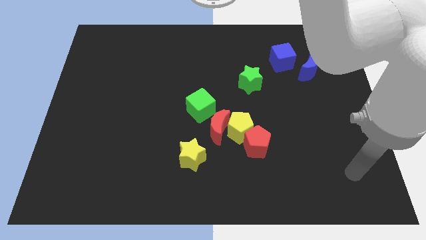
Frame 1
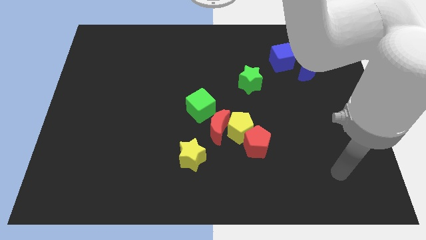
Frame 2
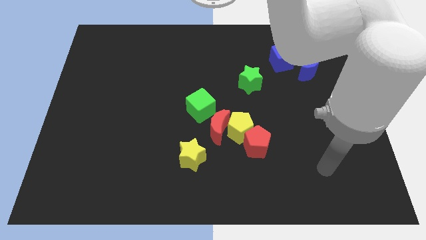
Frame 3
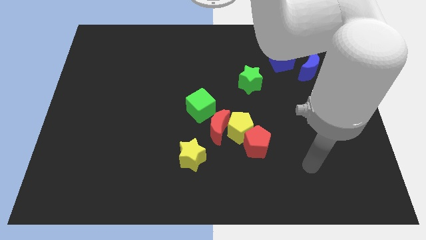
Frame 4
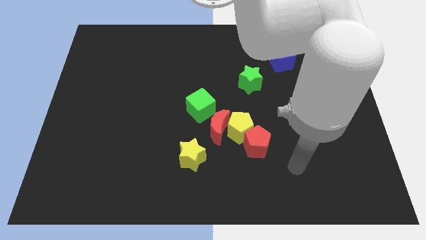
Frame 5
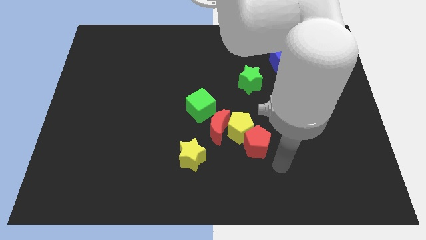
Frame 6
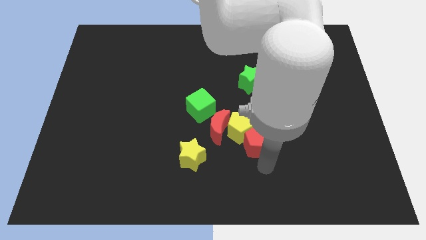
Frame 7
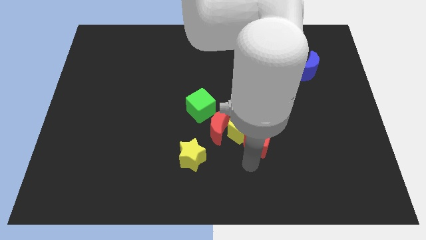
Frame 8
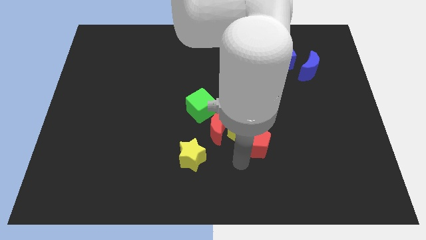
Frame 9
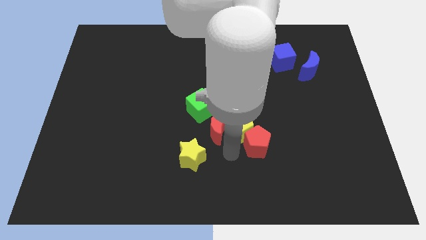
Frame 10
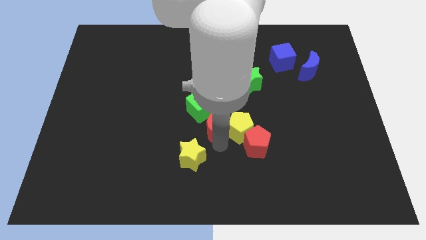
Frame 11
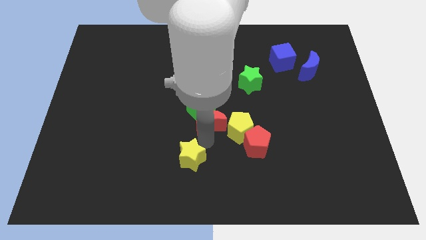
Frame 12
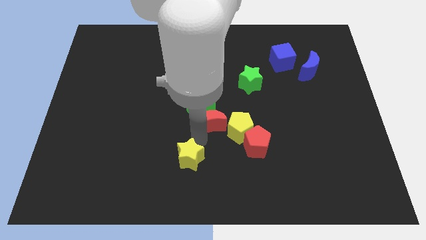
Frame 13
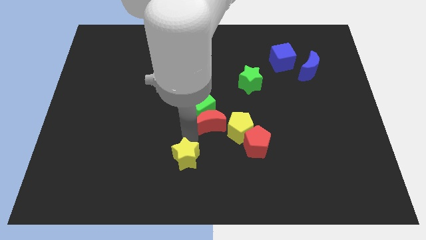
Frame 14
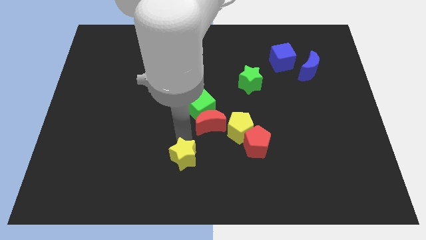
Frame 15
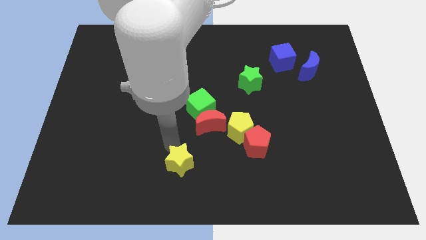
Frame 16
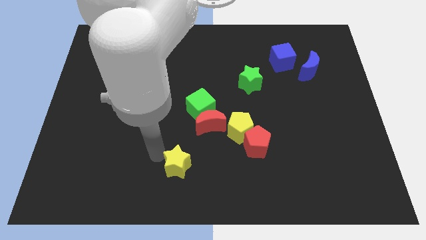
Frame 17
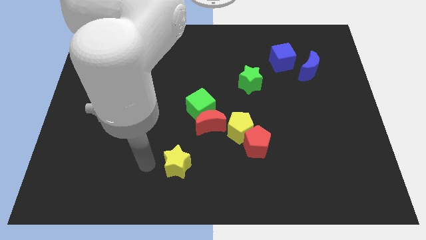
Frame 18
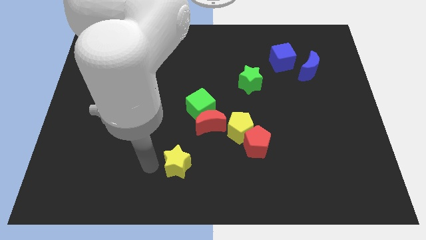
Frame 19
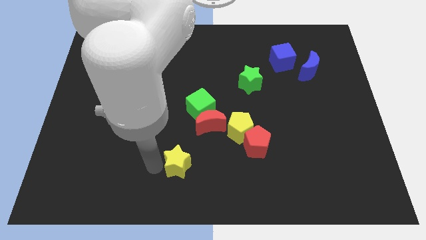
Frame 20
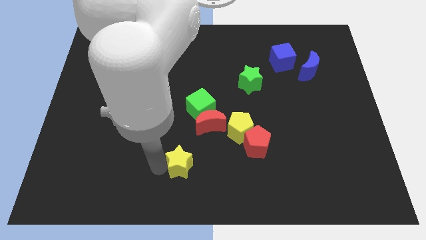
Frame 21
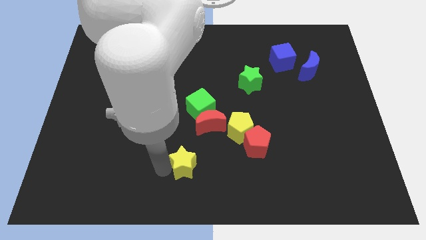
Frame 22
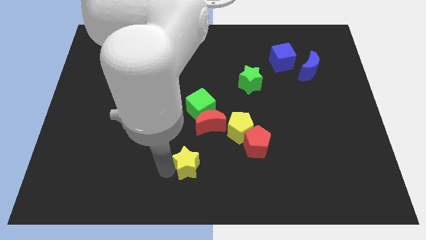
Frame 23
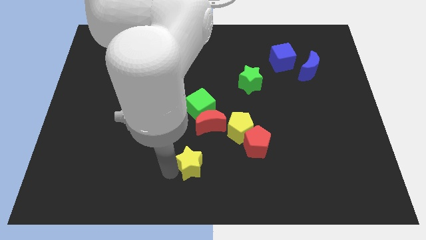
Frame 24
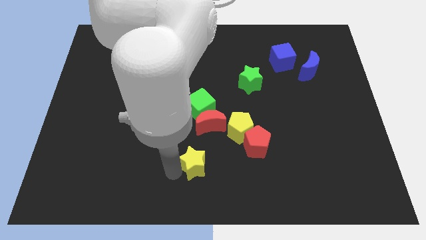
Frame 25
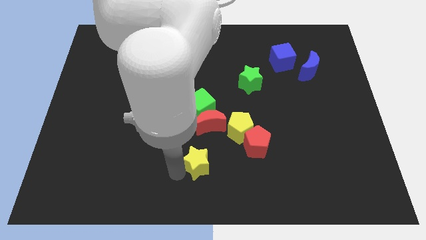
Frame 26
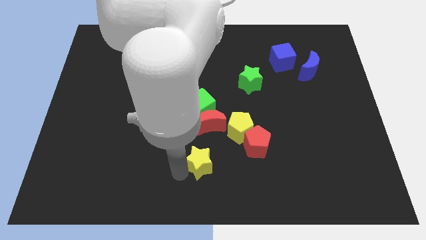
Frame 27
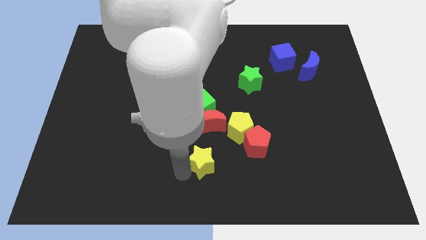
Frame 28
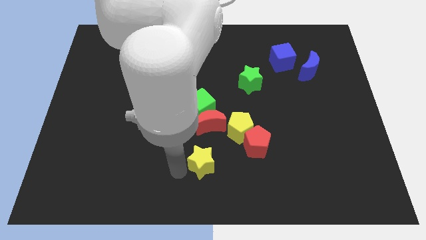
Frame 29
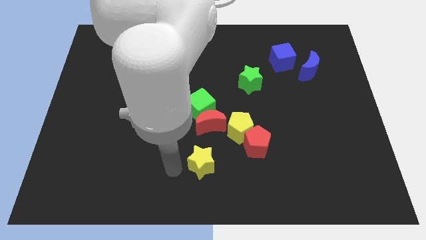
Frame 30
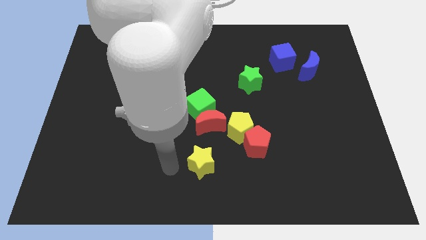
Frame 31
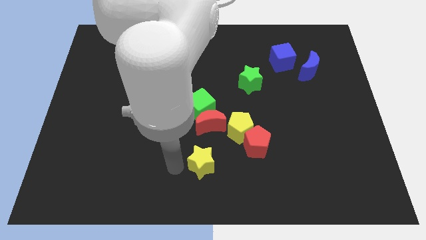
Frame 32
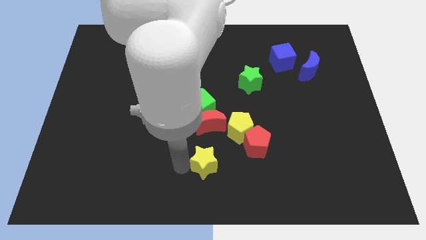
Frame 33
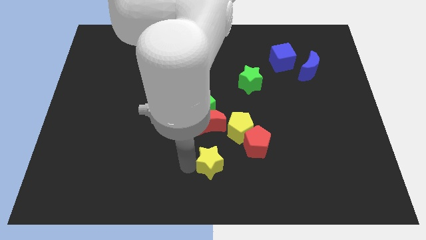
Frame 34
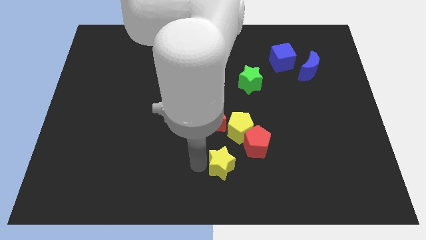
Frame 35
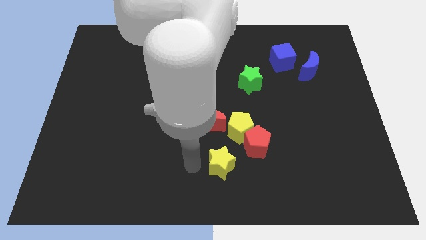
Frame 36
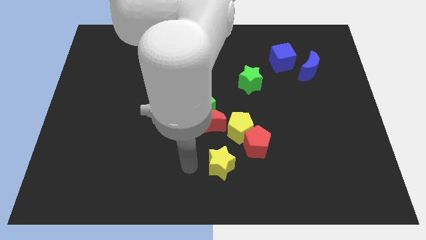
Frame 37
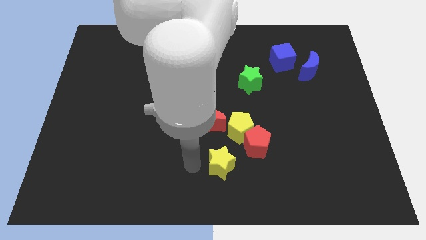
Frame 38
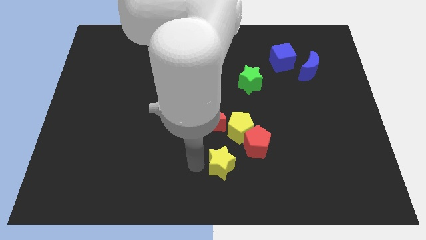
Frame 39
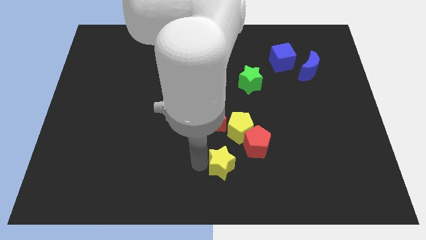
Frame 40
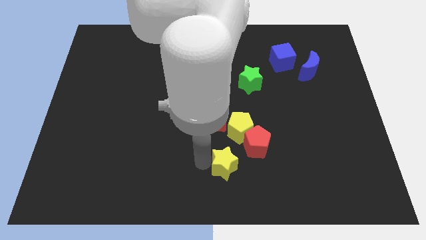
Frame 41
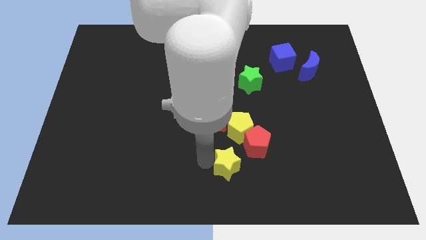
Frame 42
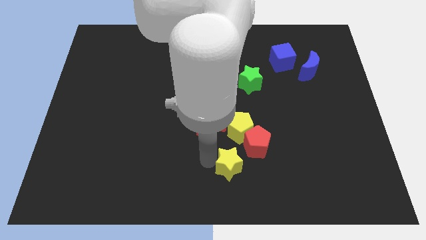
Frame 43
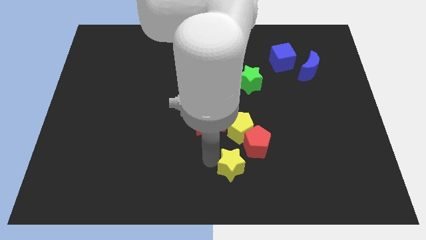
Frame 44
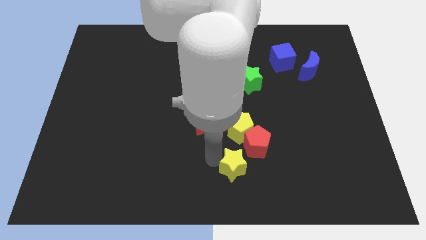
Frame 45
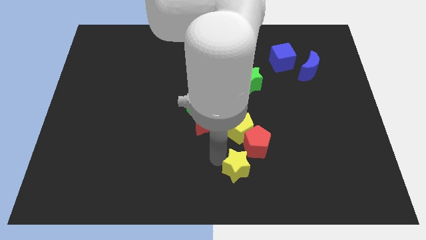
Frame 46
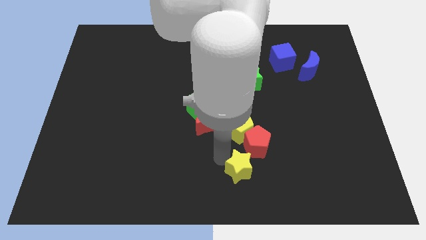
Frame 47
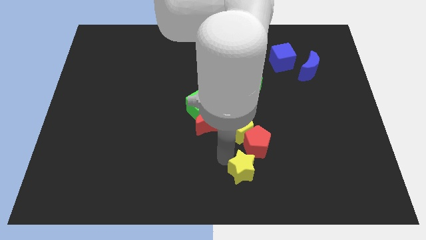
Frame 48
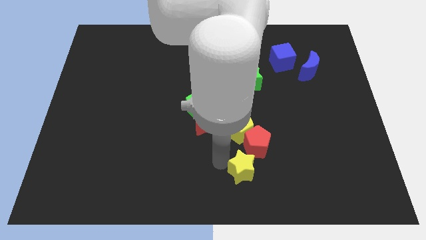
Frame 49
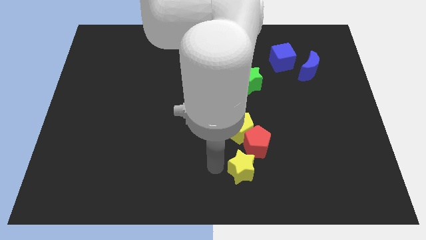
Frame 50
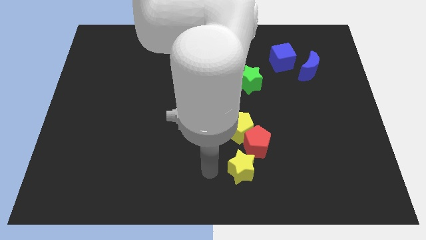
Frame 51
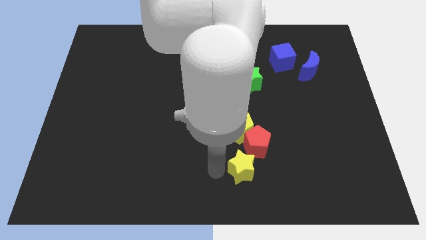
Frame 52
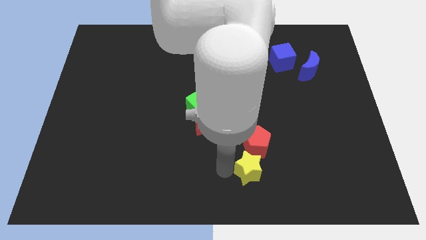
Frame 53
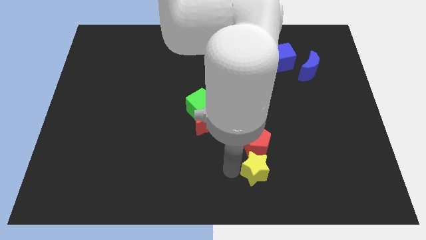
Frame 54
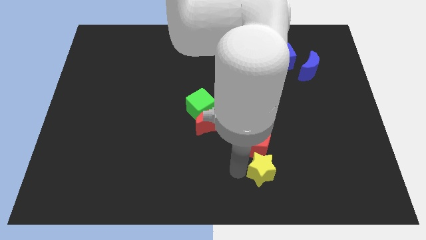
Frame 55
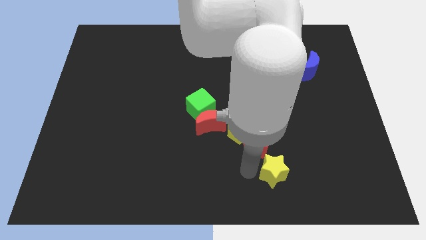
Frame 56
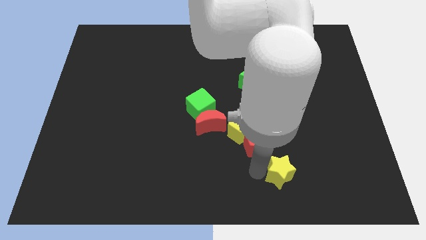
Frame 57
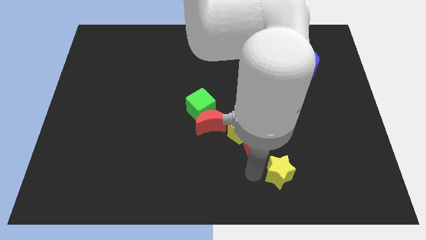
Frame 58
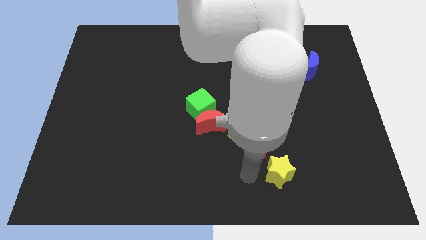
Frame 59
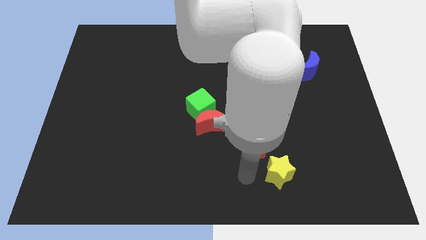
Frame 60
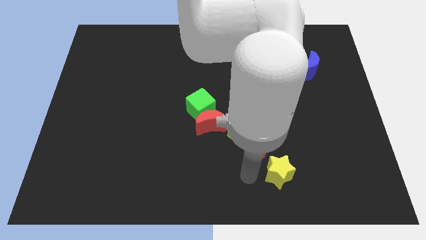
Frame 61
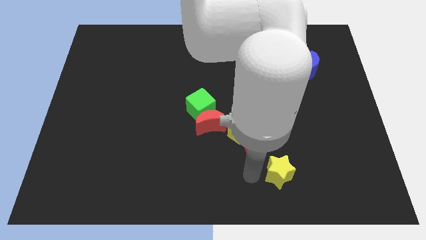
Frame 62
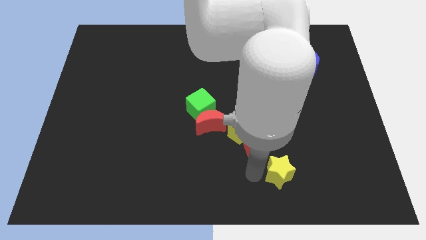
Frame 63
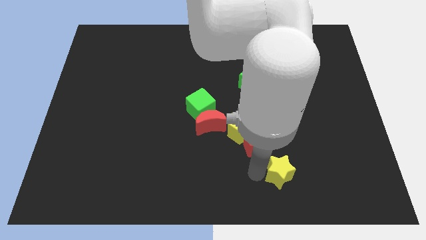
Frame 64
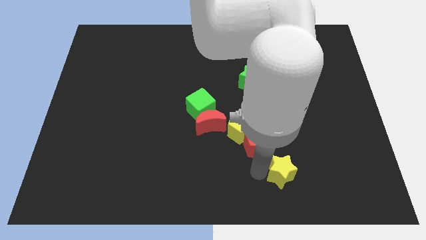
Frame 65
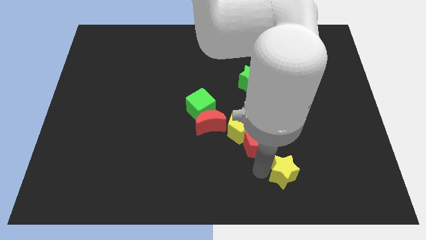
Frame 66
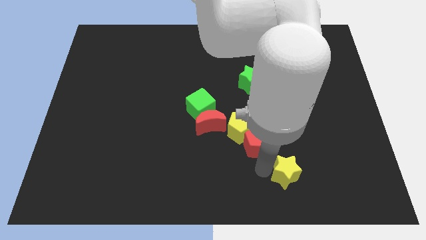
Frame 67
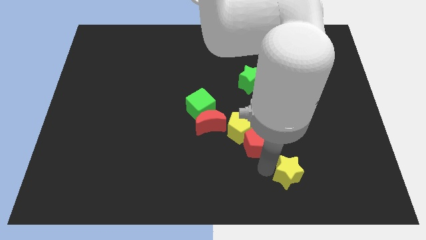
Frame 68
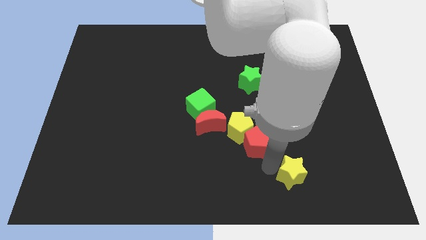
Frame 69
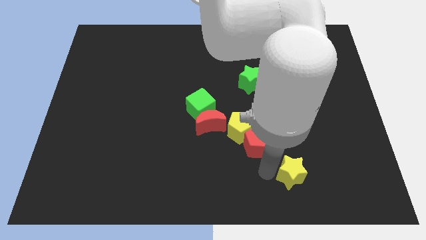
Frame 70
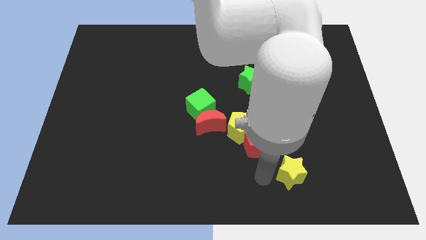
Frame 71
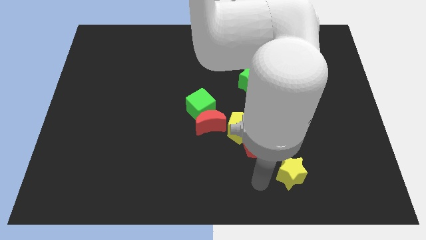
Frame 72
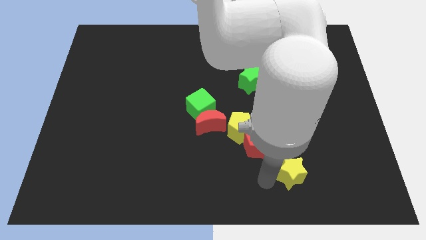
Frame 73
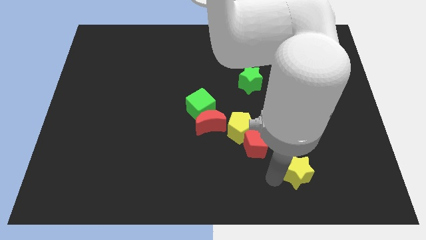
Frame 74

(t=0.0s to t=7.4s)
push the yellow star to the right

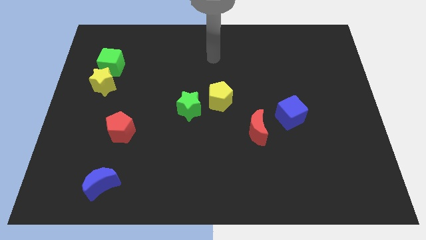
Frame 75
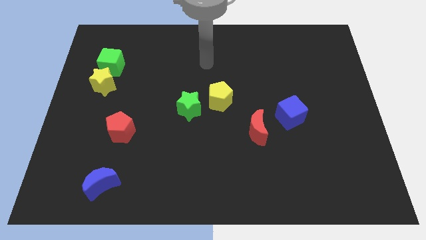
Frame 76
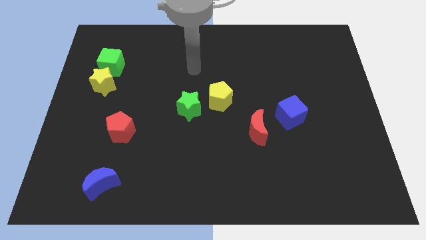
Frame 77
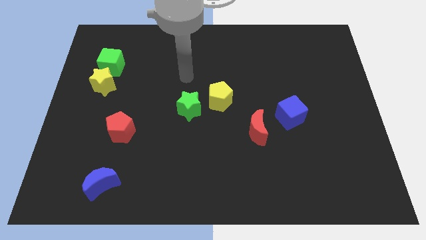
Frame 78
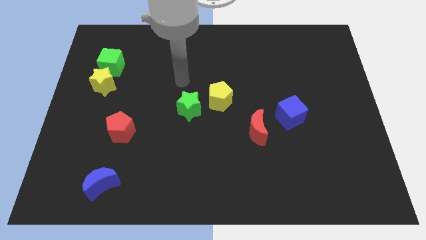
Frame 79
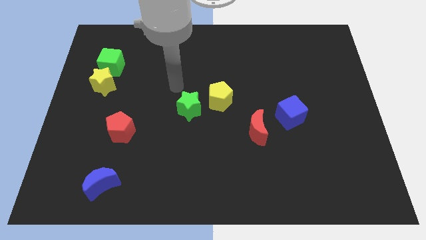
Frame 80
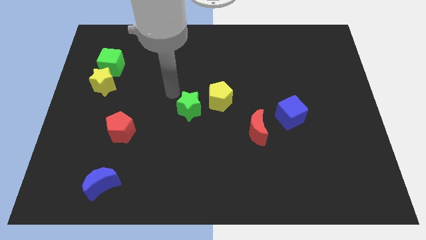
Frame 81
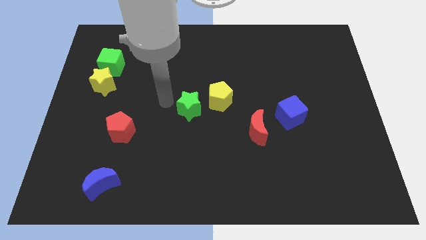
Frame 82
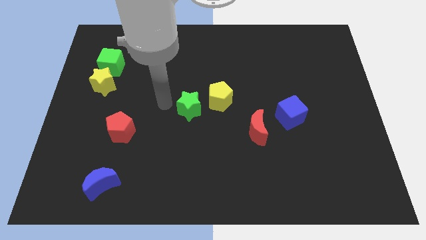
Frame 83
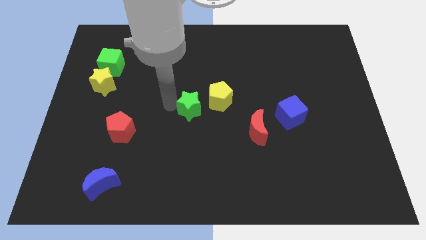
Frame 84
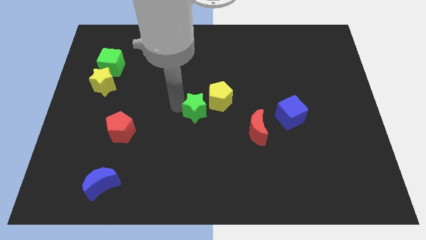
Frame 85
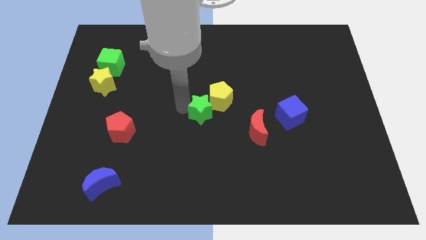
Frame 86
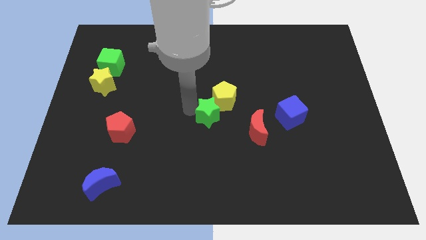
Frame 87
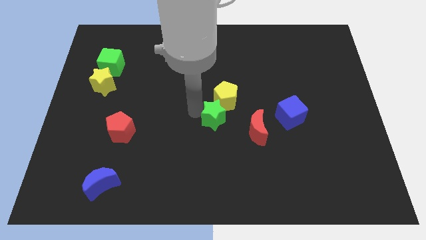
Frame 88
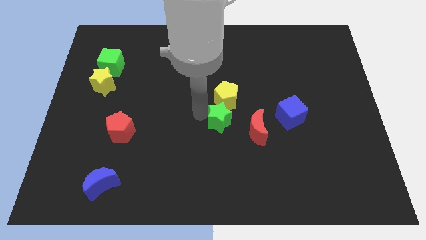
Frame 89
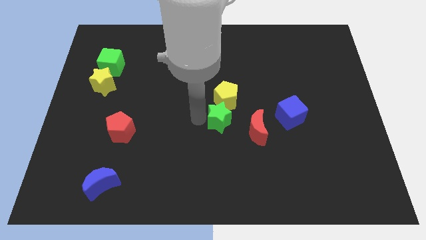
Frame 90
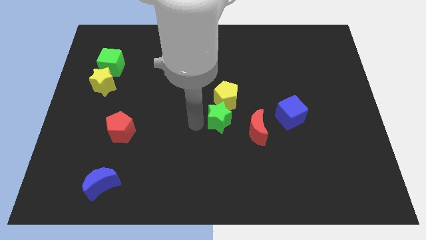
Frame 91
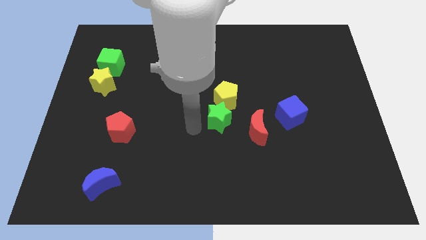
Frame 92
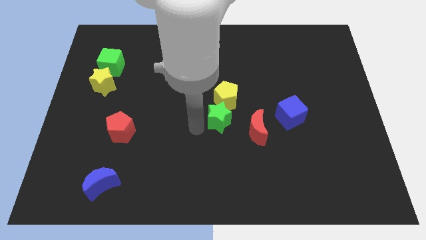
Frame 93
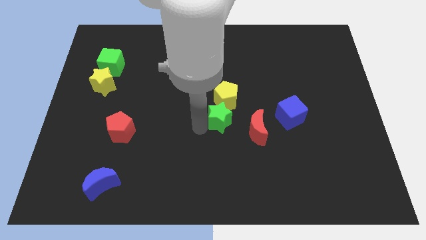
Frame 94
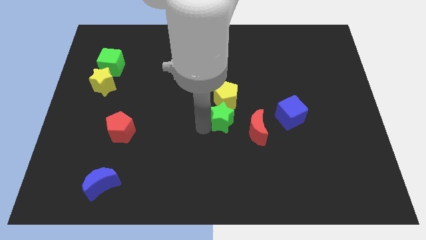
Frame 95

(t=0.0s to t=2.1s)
move the green star to the right somewhat
